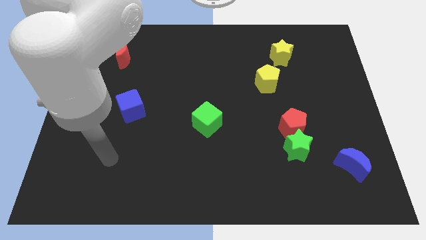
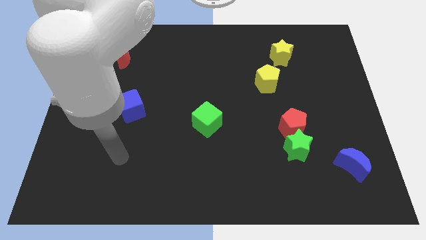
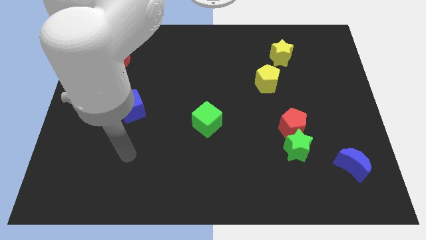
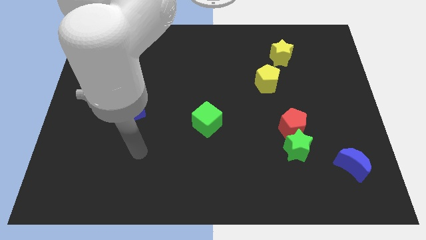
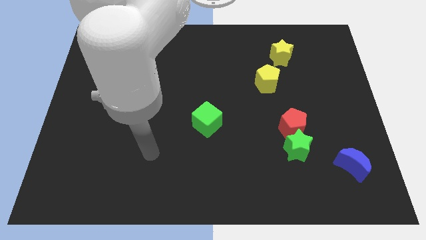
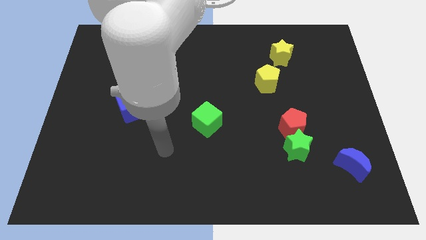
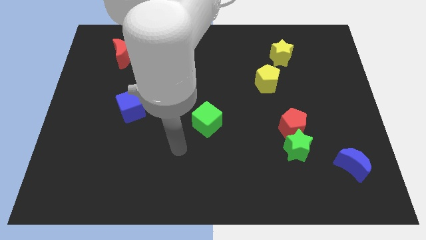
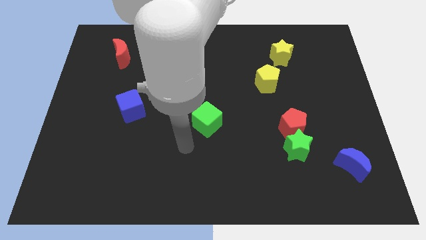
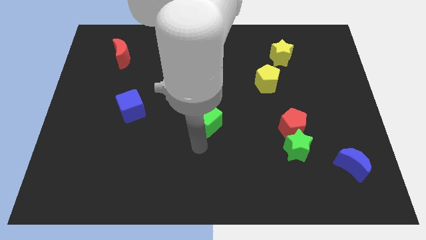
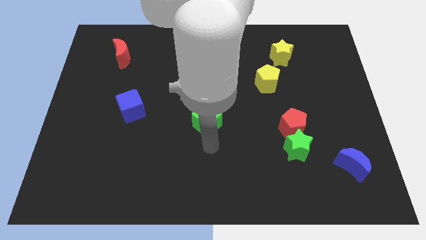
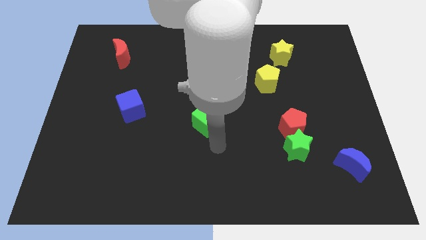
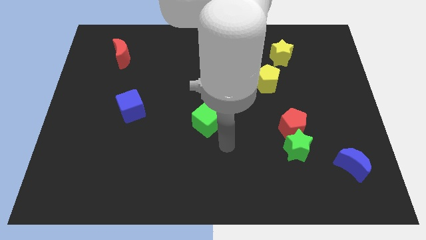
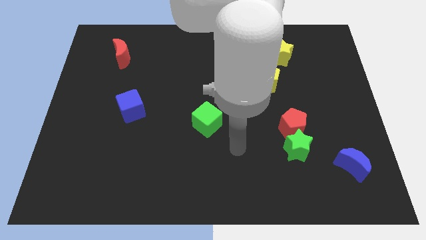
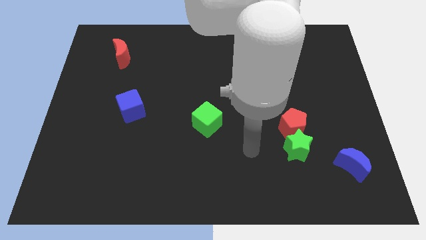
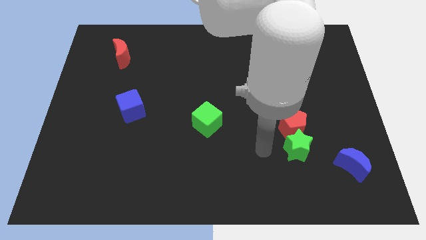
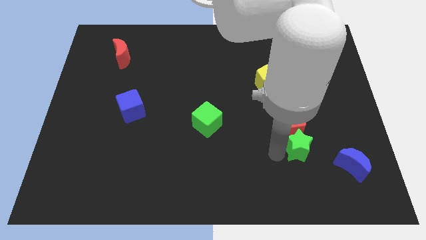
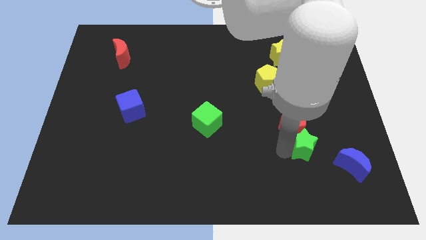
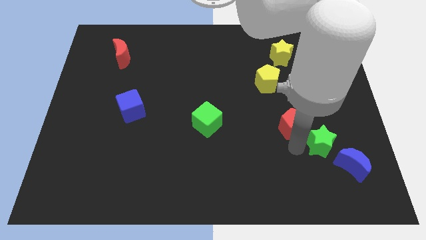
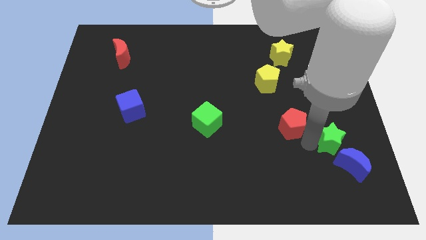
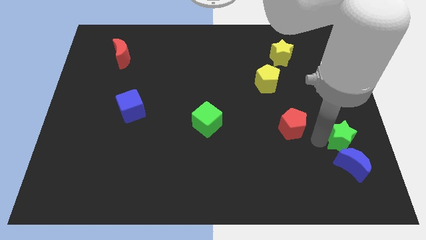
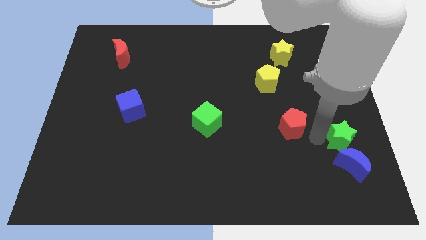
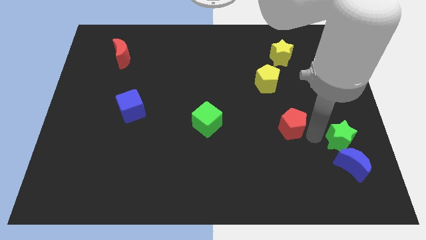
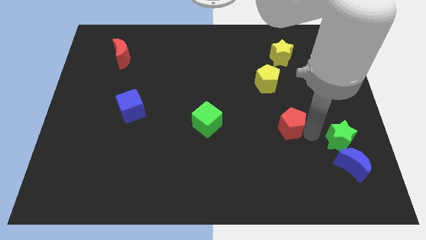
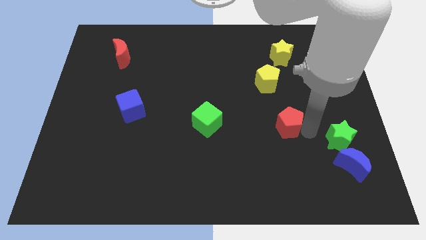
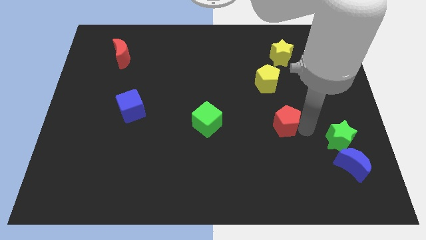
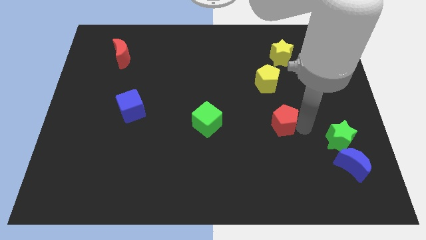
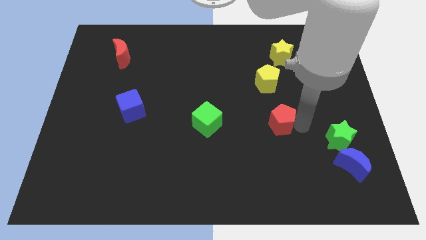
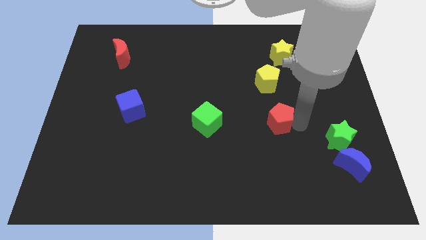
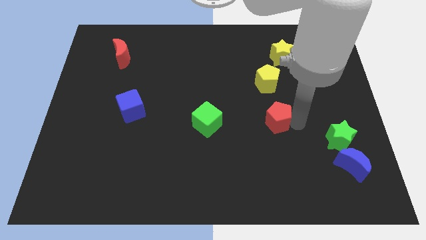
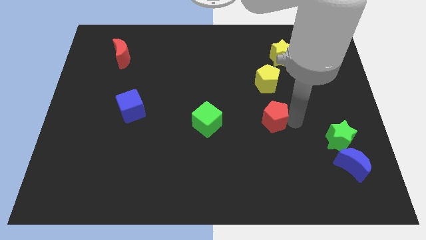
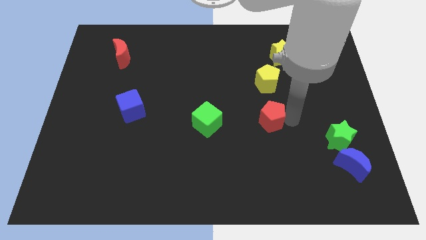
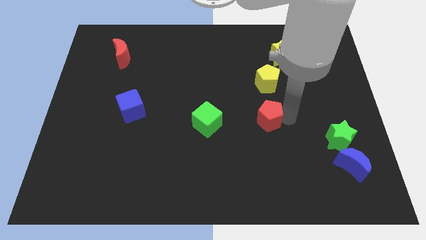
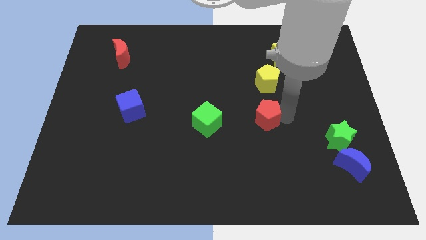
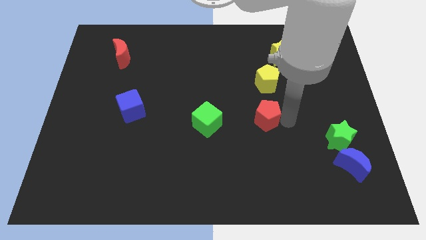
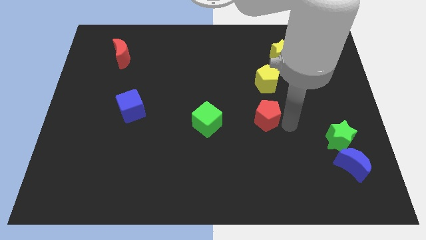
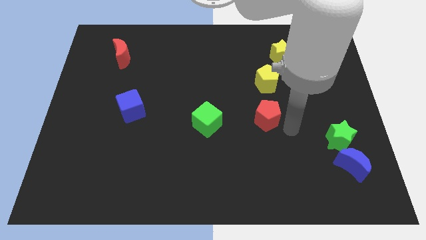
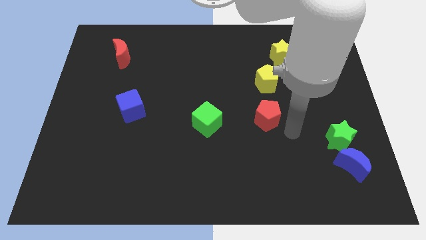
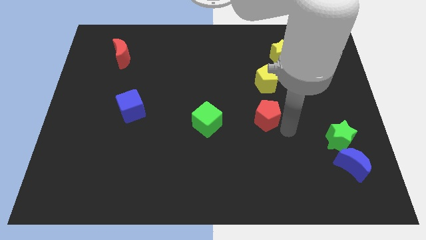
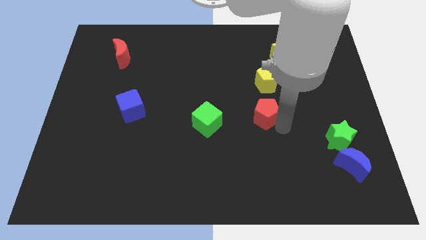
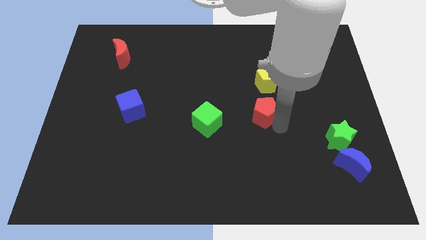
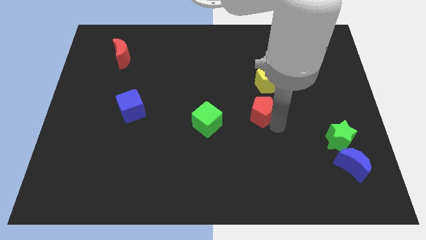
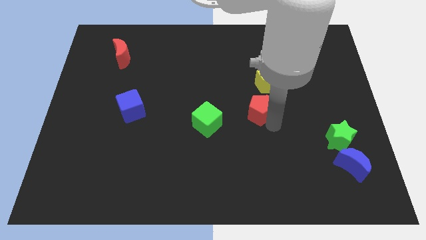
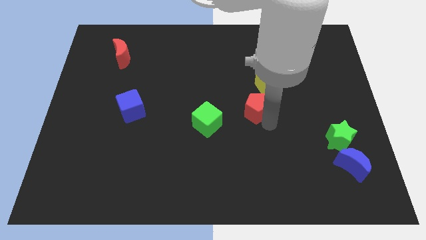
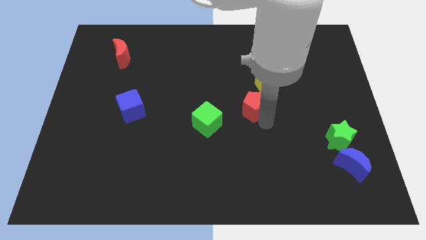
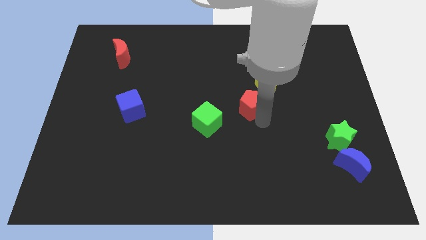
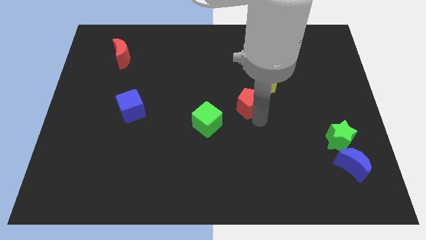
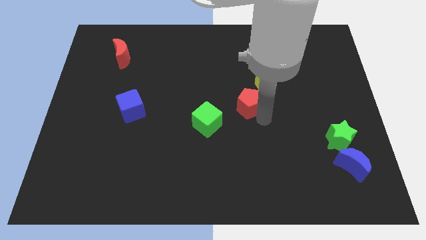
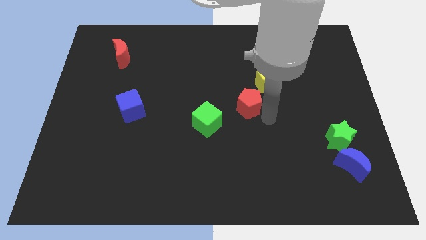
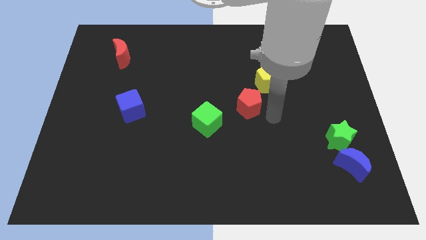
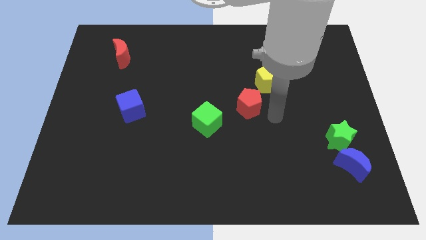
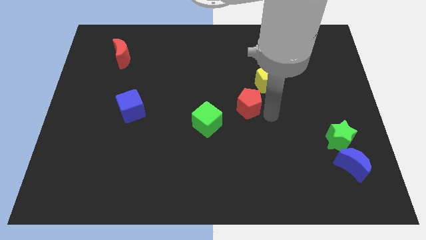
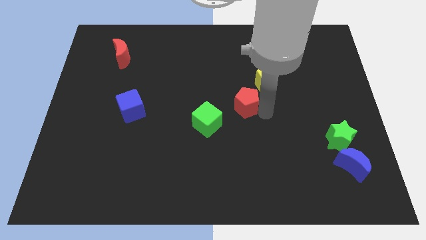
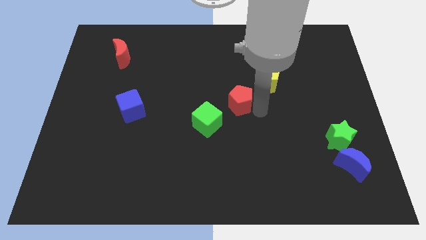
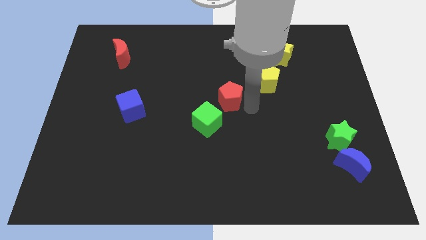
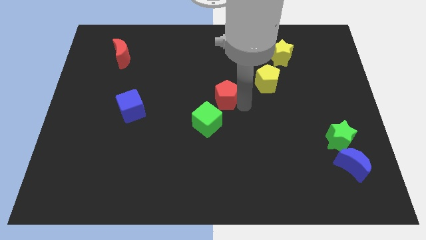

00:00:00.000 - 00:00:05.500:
move the red pentagon above the green cube

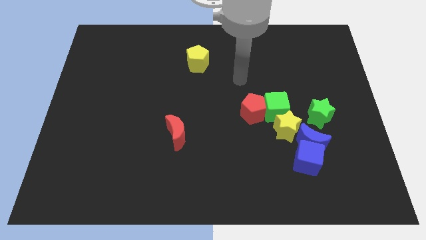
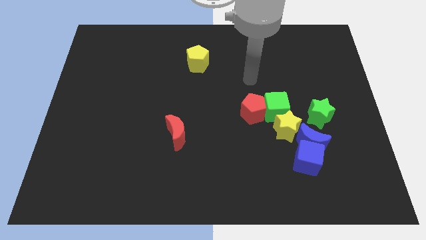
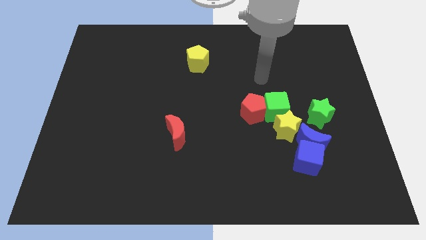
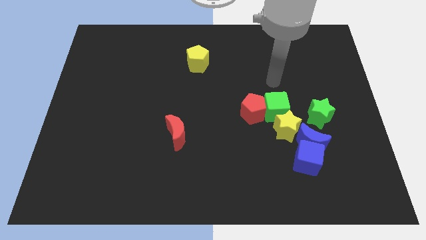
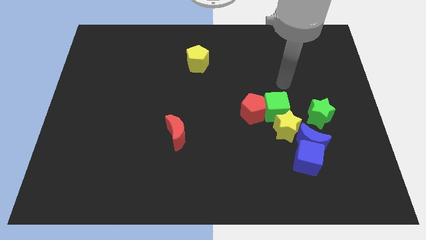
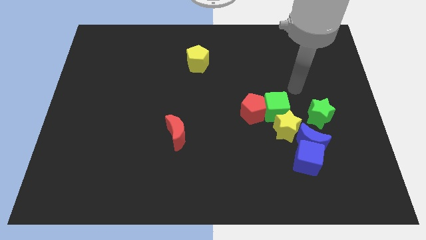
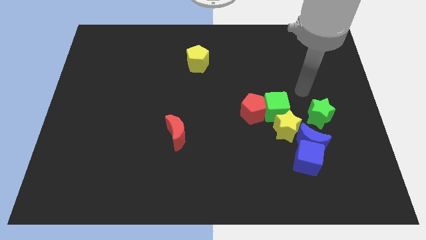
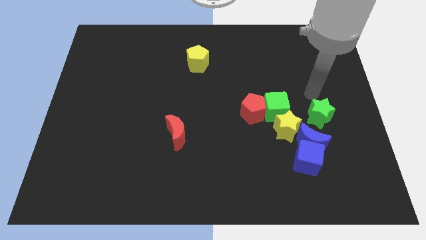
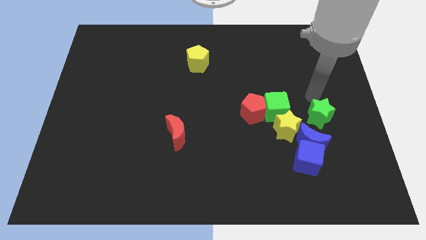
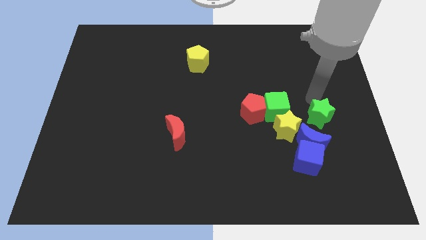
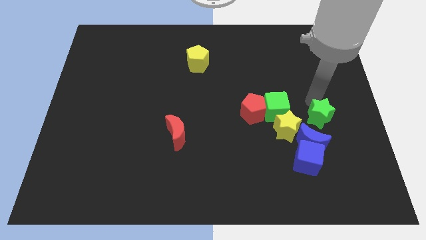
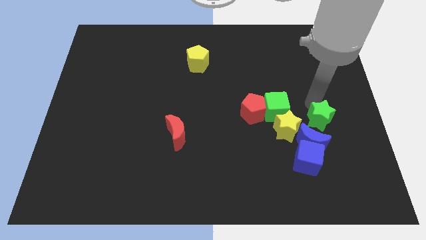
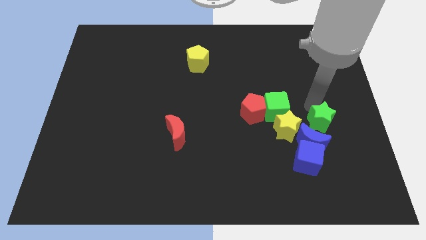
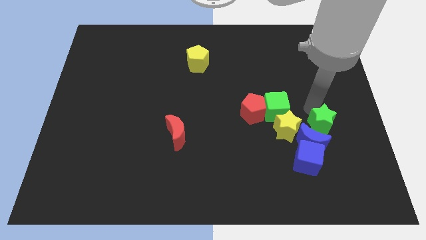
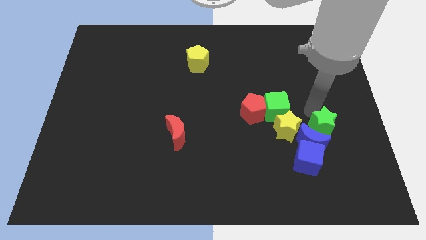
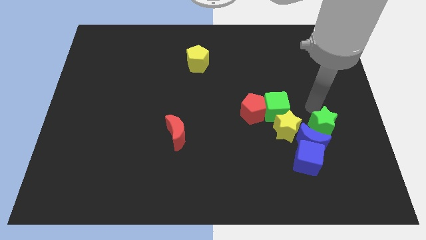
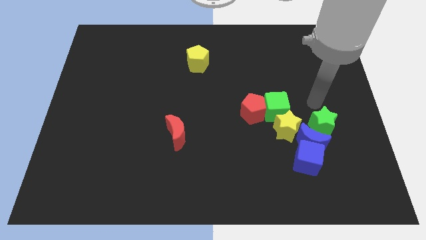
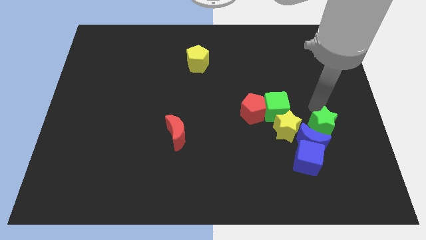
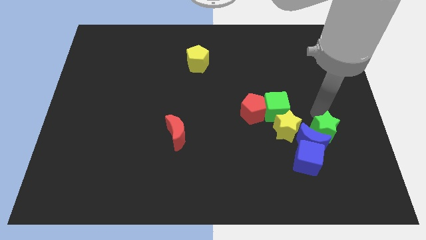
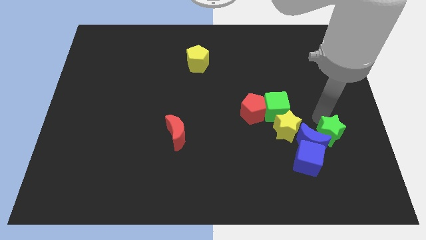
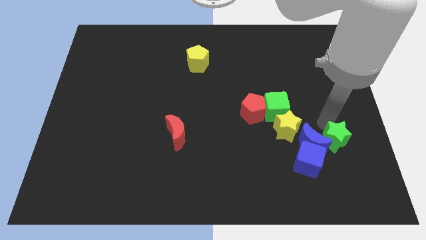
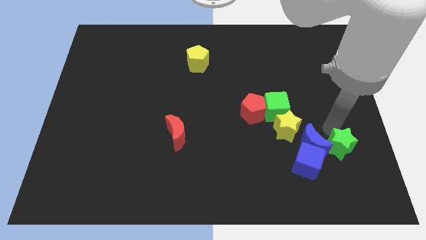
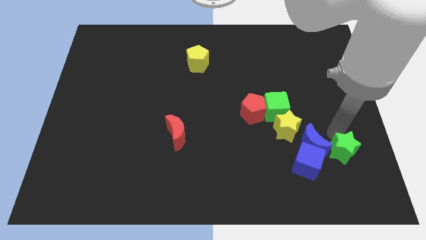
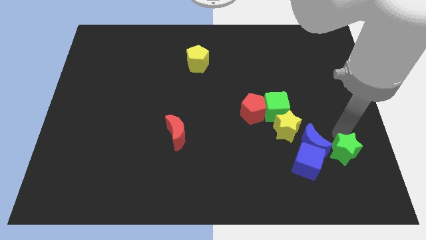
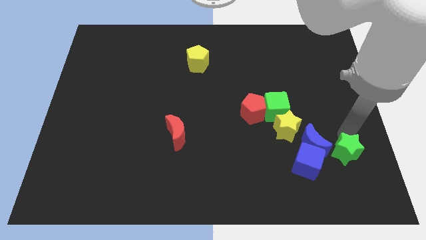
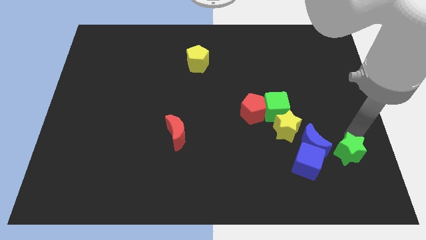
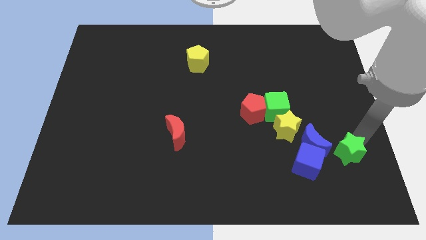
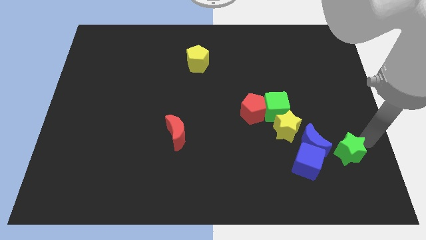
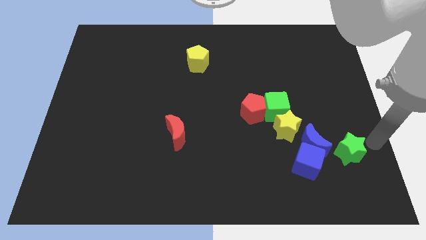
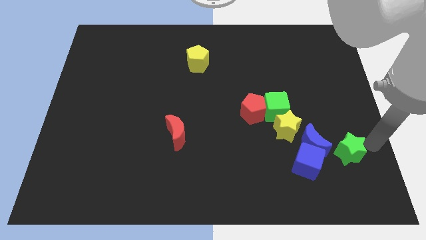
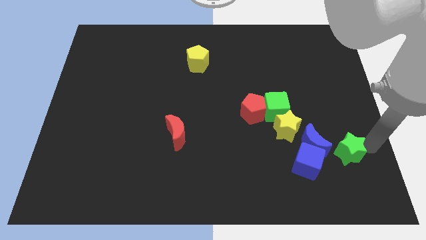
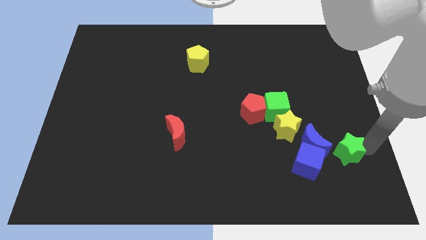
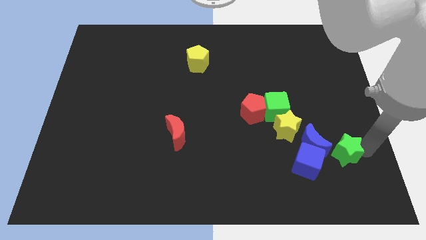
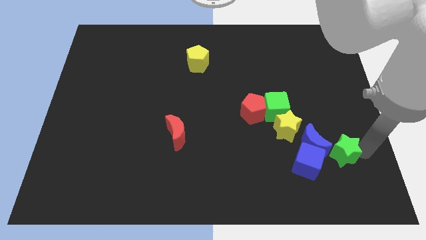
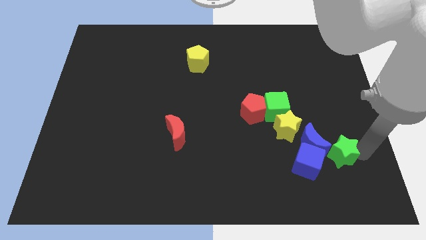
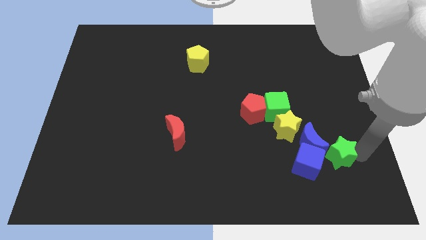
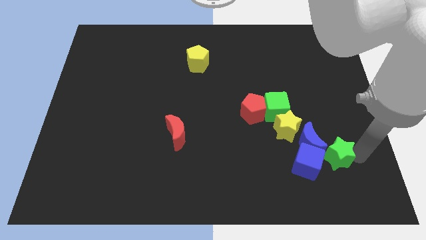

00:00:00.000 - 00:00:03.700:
push the green star to the bottom right of the yellow star
